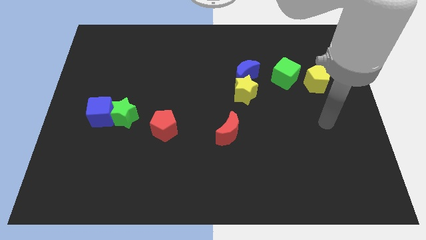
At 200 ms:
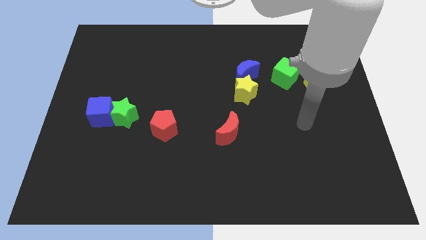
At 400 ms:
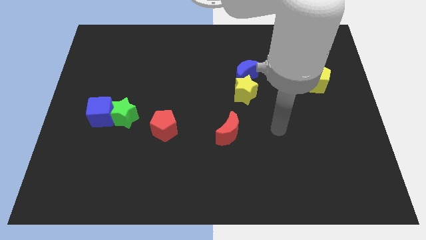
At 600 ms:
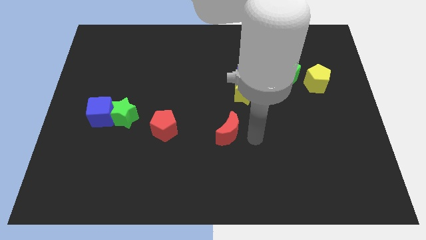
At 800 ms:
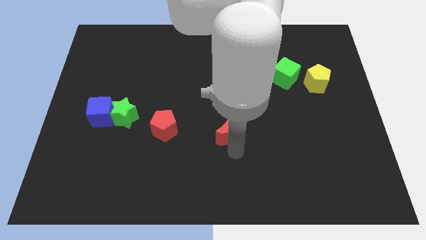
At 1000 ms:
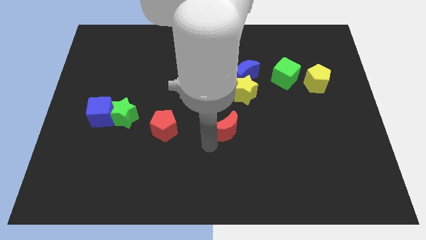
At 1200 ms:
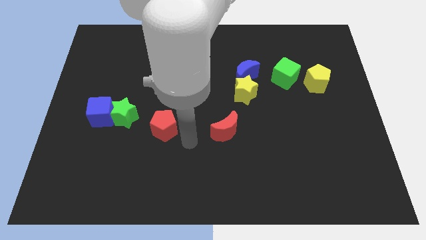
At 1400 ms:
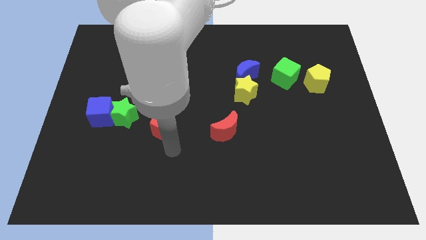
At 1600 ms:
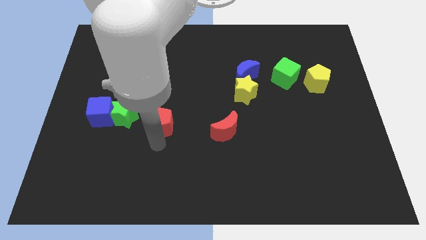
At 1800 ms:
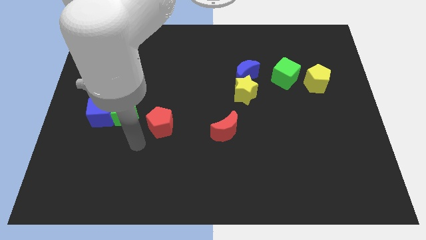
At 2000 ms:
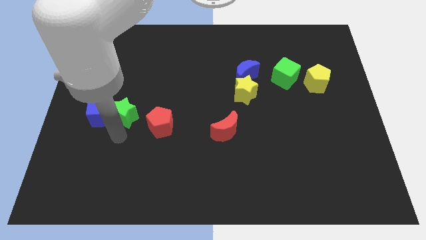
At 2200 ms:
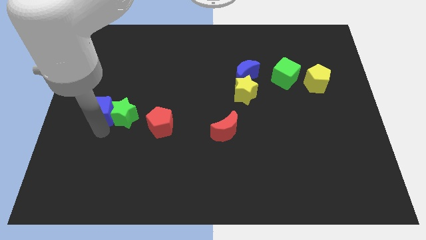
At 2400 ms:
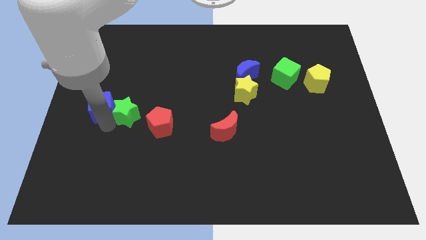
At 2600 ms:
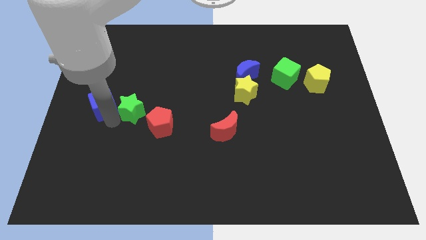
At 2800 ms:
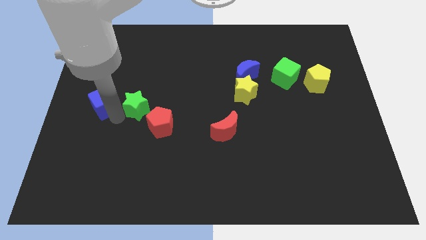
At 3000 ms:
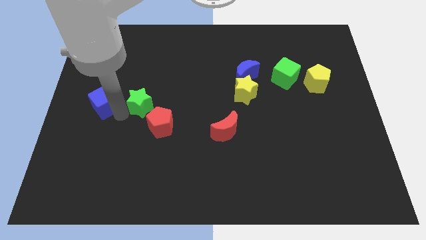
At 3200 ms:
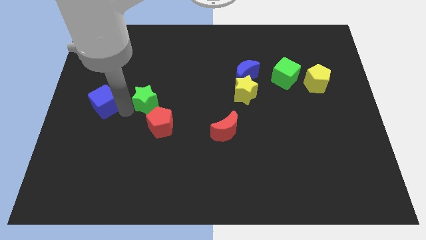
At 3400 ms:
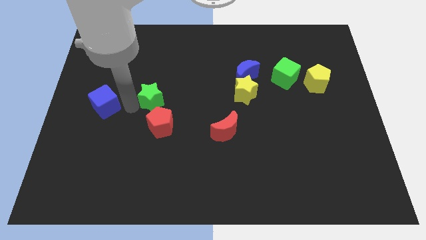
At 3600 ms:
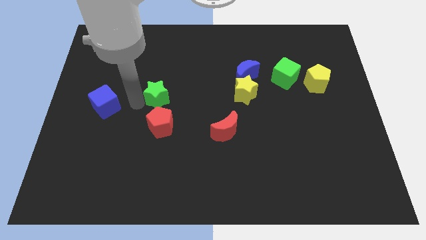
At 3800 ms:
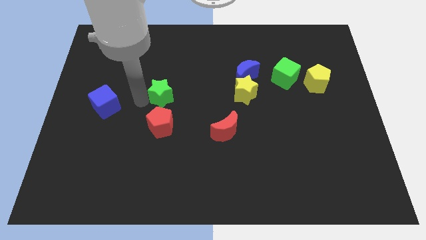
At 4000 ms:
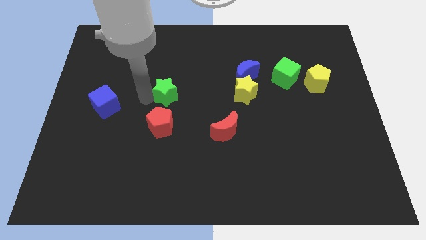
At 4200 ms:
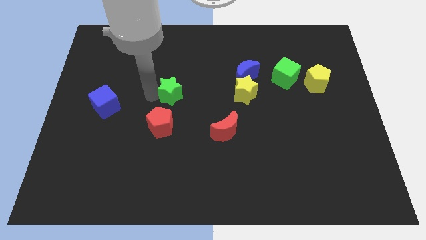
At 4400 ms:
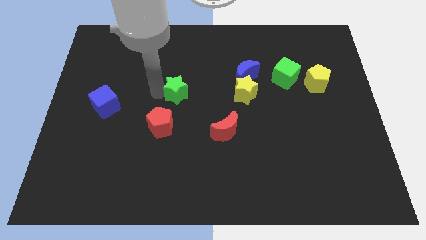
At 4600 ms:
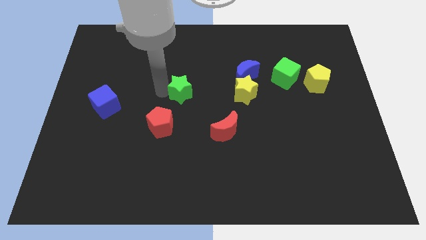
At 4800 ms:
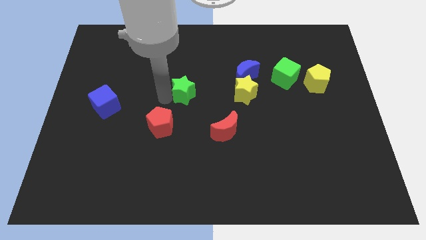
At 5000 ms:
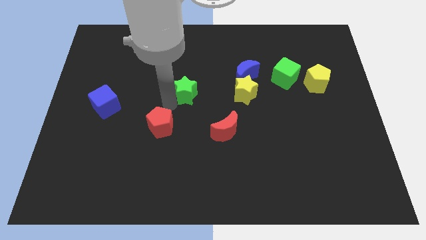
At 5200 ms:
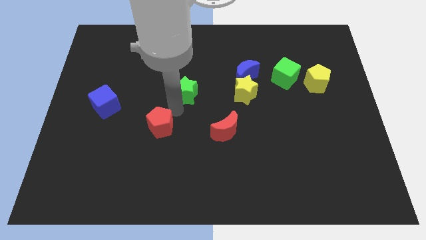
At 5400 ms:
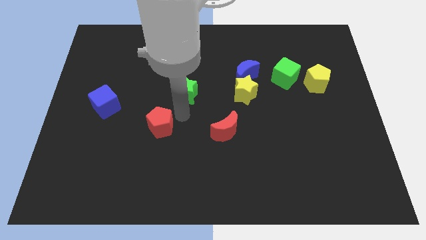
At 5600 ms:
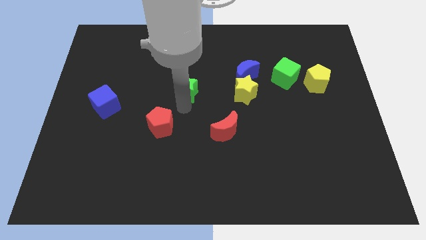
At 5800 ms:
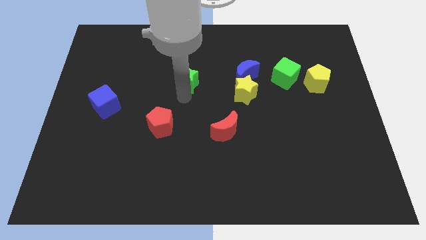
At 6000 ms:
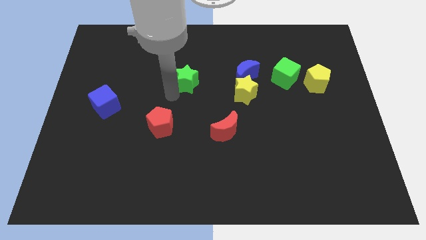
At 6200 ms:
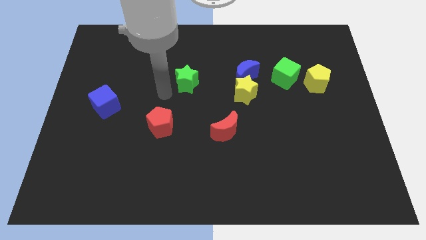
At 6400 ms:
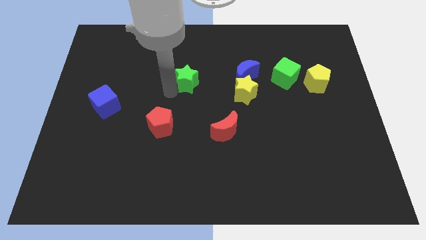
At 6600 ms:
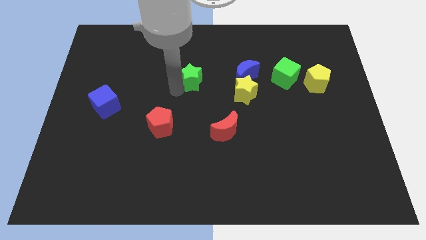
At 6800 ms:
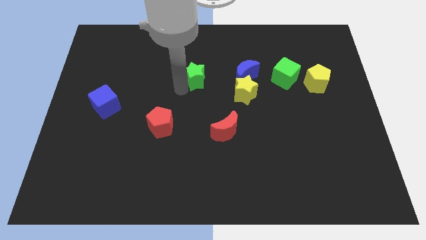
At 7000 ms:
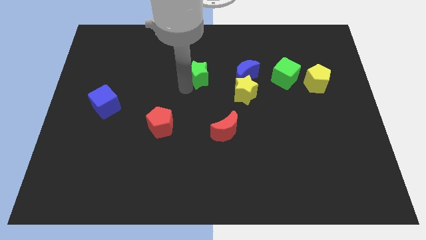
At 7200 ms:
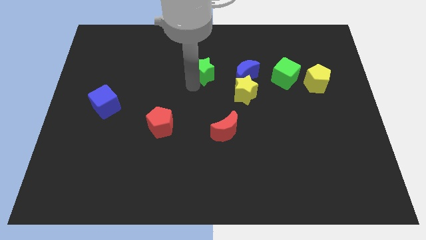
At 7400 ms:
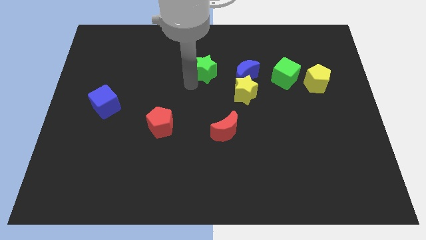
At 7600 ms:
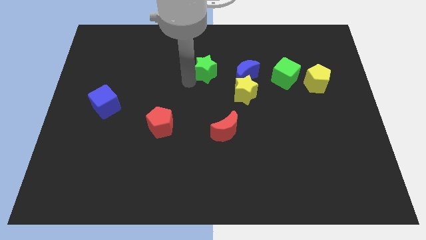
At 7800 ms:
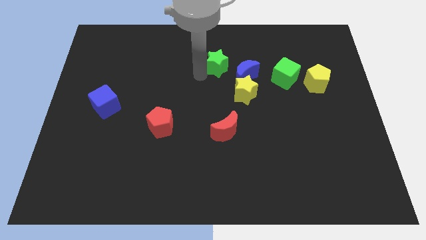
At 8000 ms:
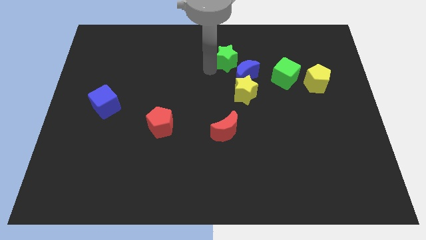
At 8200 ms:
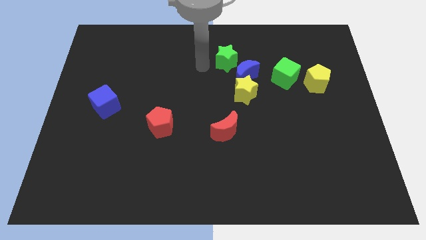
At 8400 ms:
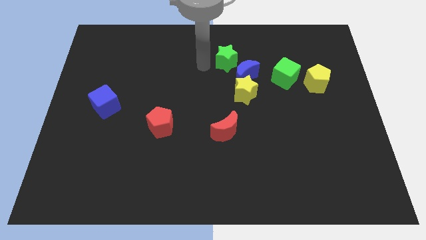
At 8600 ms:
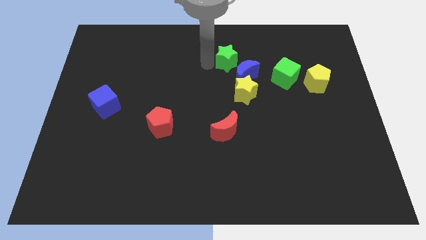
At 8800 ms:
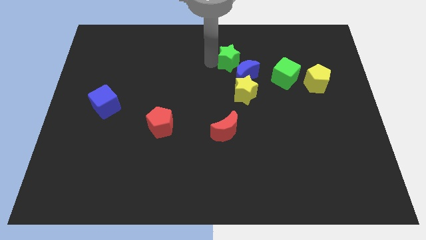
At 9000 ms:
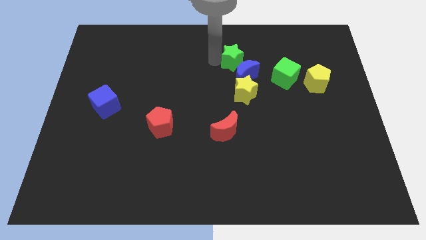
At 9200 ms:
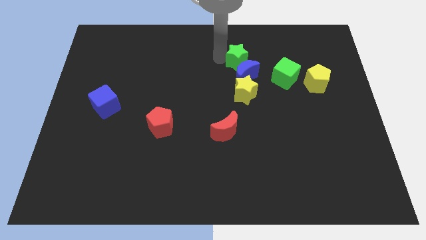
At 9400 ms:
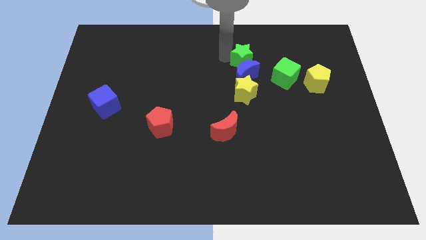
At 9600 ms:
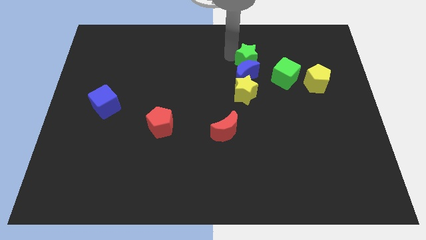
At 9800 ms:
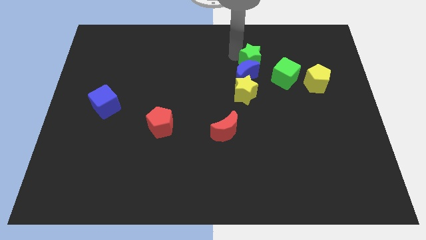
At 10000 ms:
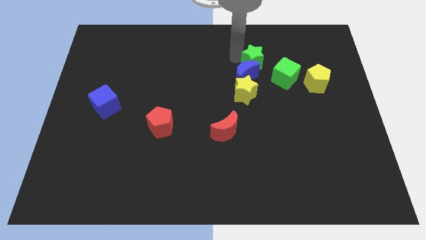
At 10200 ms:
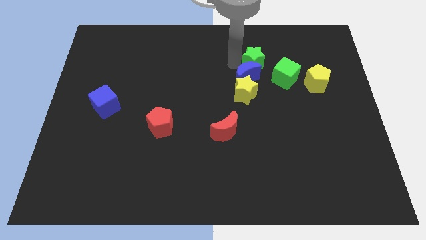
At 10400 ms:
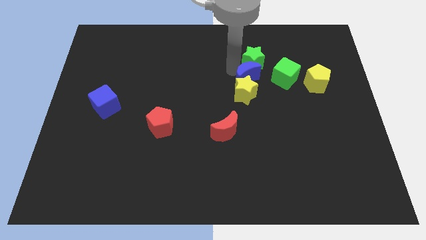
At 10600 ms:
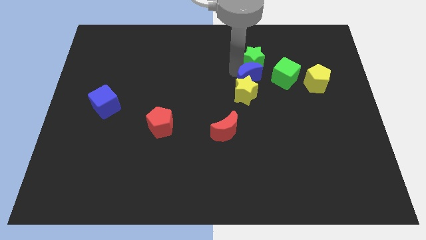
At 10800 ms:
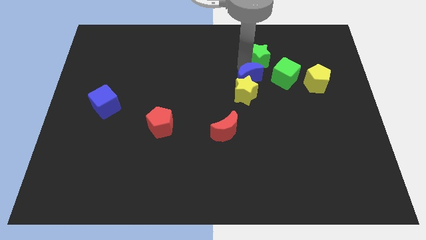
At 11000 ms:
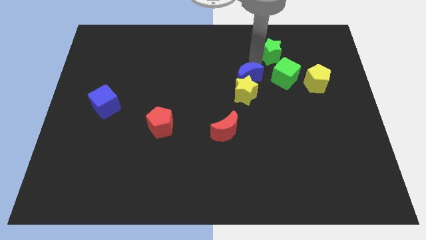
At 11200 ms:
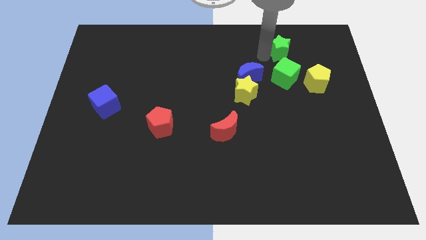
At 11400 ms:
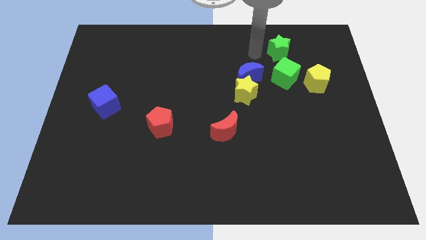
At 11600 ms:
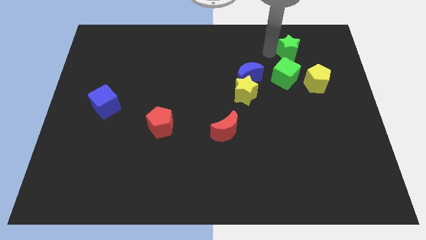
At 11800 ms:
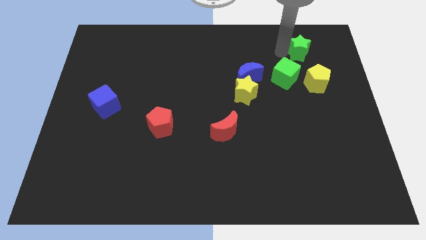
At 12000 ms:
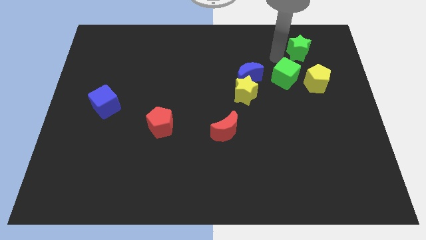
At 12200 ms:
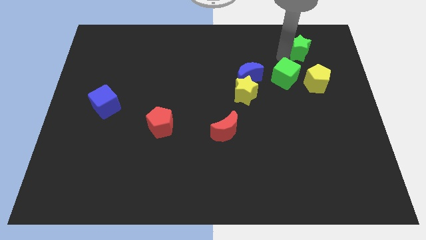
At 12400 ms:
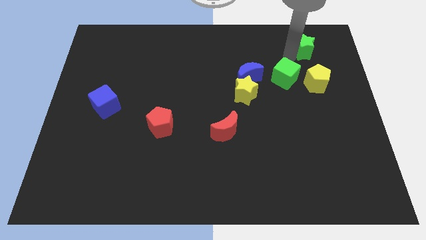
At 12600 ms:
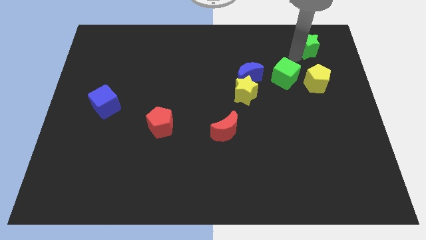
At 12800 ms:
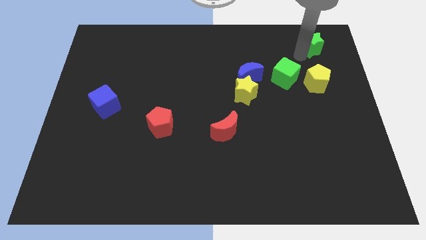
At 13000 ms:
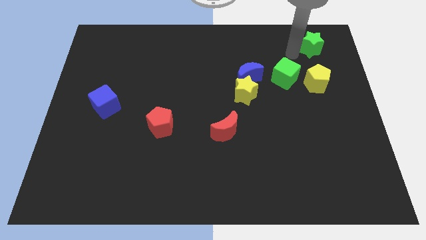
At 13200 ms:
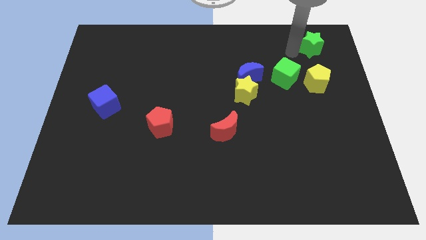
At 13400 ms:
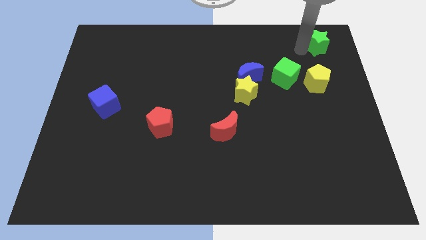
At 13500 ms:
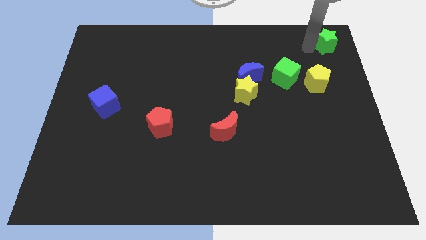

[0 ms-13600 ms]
push the green star to the upper right corner
